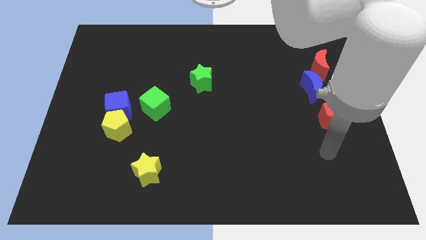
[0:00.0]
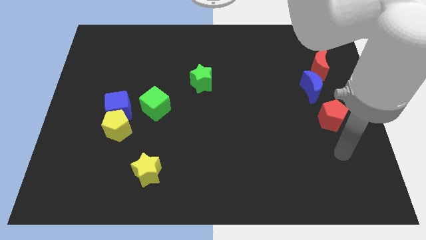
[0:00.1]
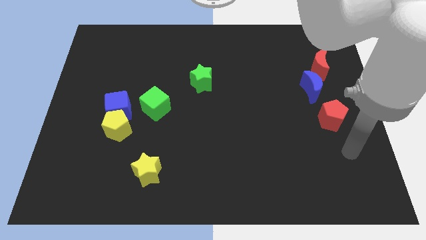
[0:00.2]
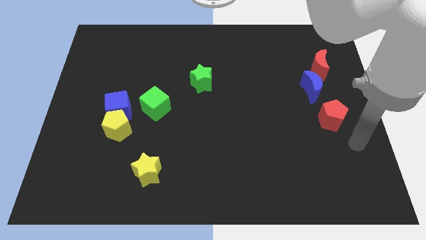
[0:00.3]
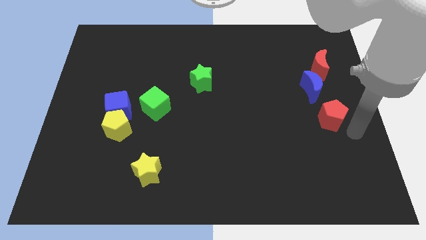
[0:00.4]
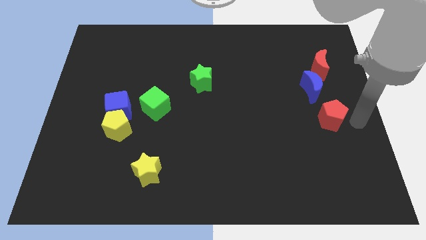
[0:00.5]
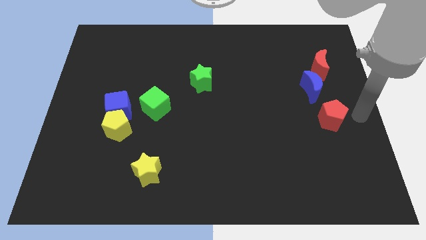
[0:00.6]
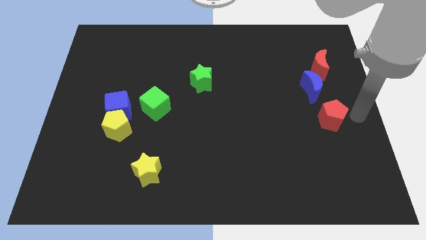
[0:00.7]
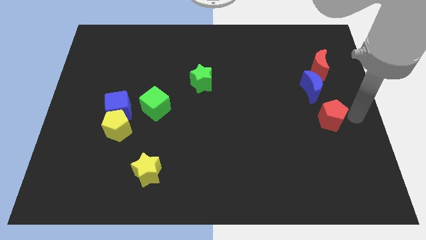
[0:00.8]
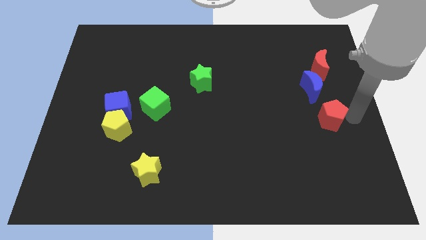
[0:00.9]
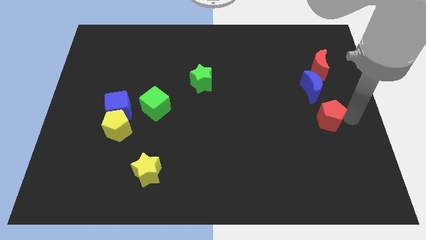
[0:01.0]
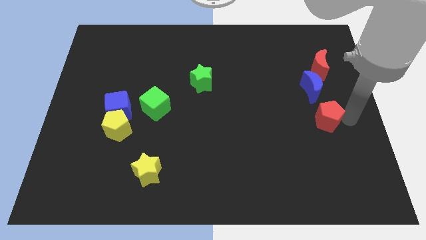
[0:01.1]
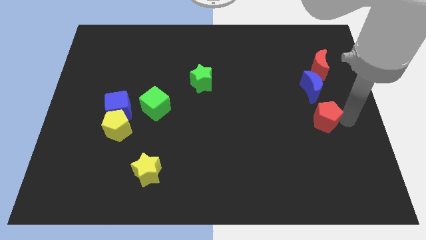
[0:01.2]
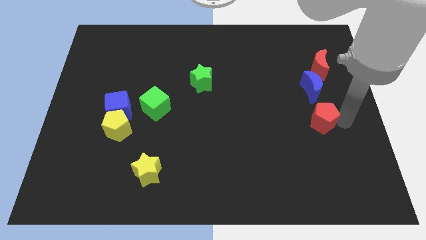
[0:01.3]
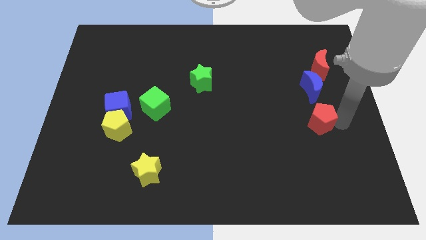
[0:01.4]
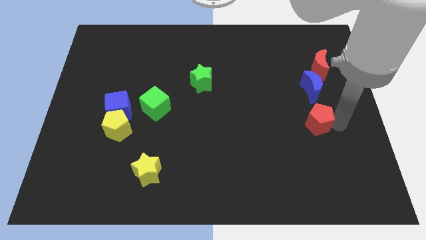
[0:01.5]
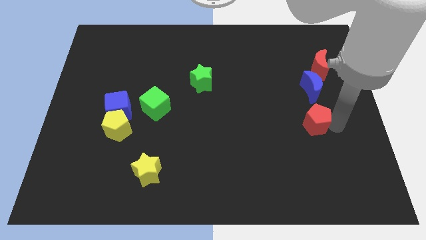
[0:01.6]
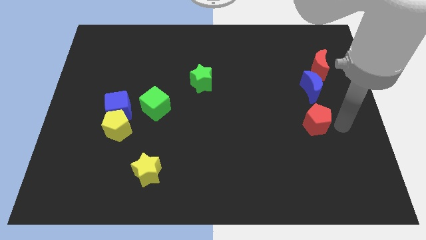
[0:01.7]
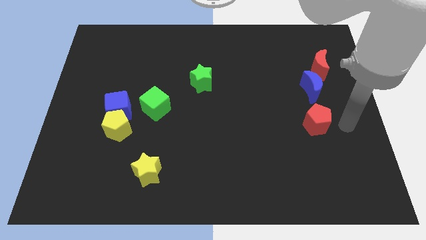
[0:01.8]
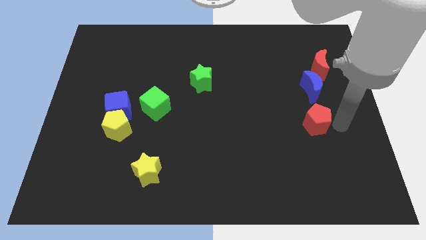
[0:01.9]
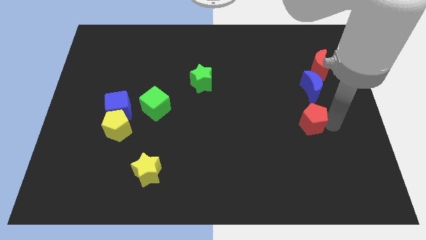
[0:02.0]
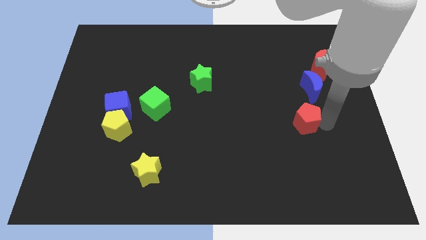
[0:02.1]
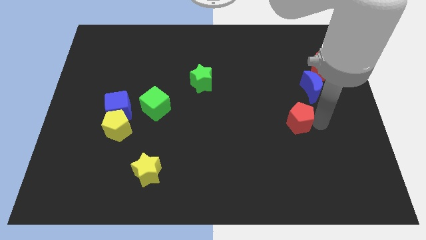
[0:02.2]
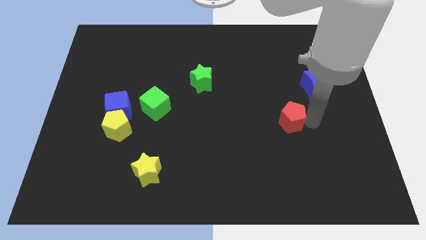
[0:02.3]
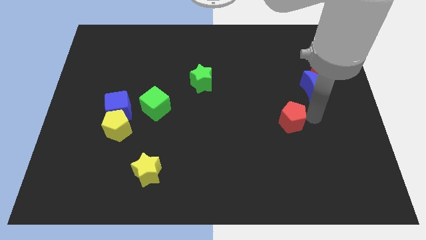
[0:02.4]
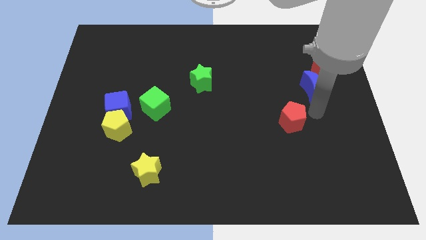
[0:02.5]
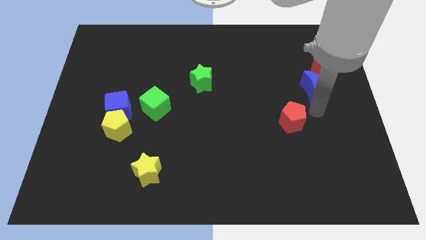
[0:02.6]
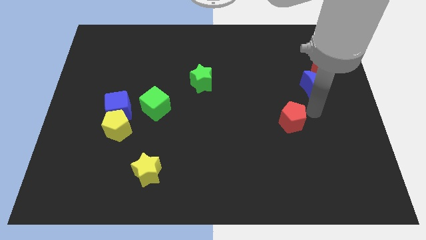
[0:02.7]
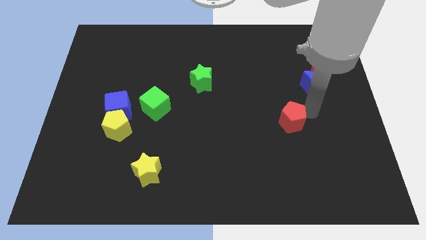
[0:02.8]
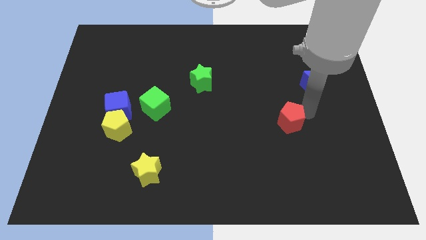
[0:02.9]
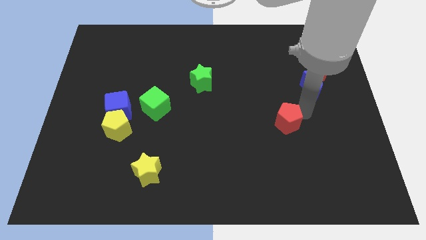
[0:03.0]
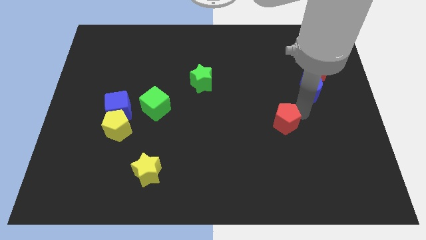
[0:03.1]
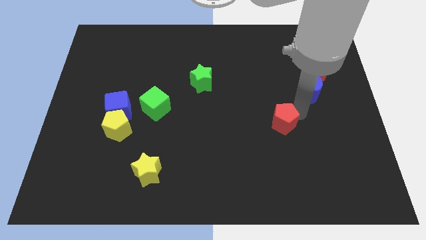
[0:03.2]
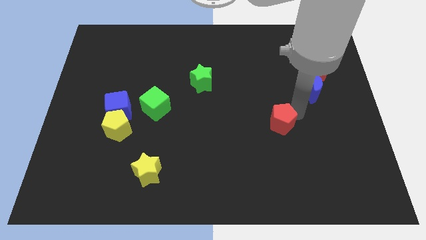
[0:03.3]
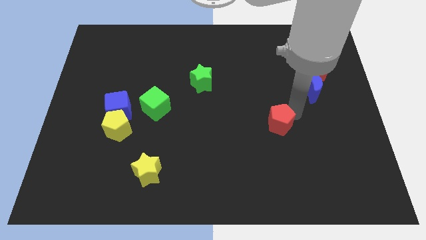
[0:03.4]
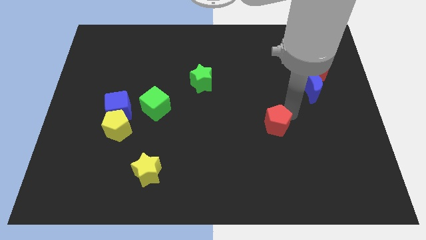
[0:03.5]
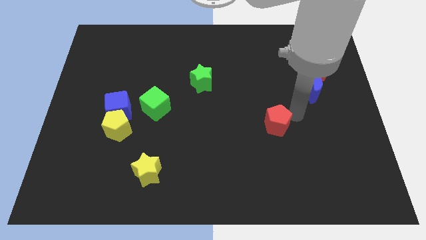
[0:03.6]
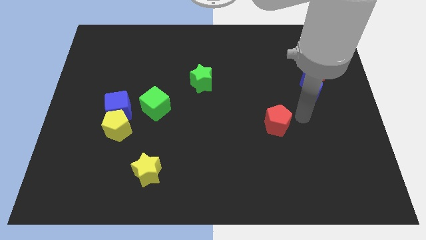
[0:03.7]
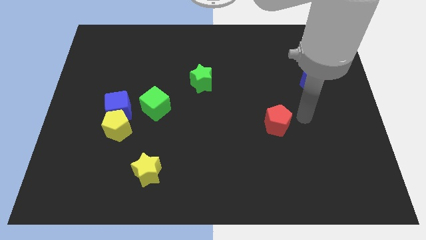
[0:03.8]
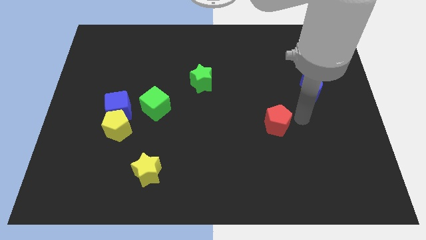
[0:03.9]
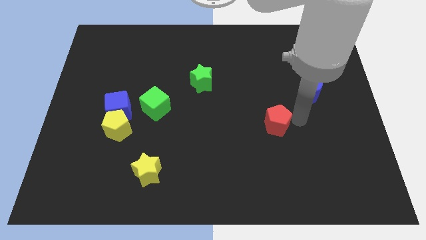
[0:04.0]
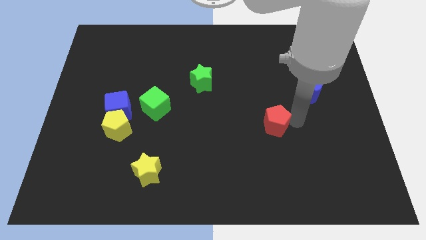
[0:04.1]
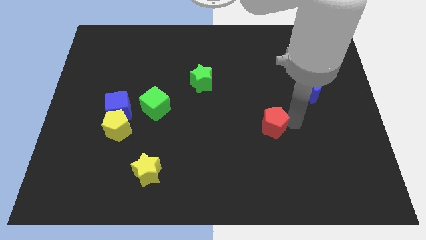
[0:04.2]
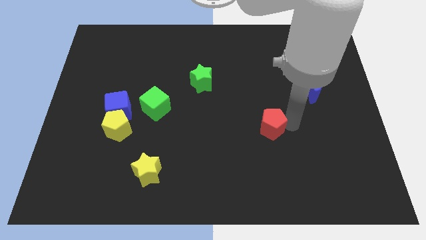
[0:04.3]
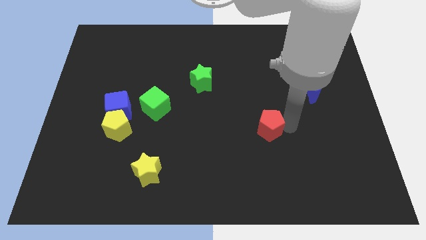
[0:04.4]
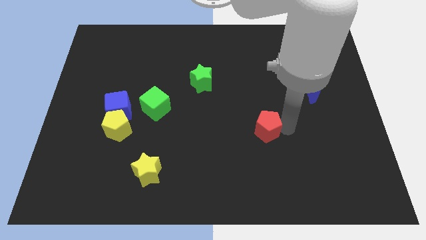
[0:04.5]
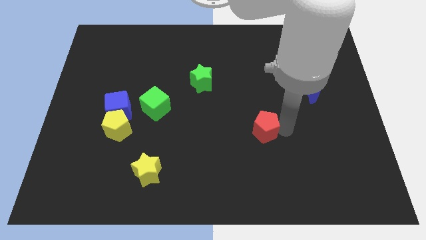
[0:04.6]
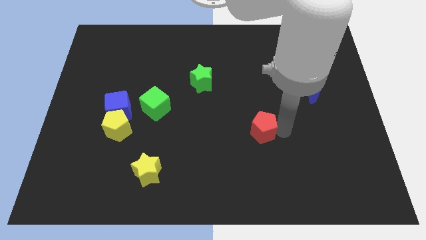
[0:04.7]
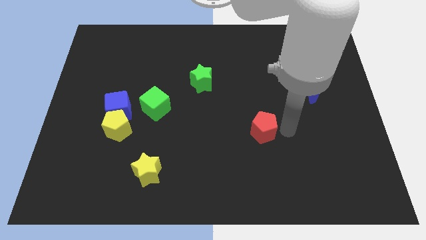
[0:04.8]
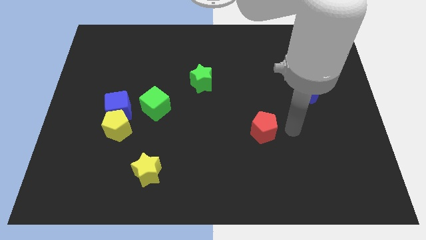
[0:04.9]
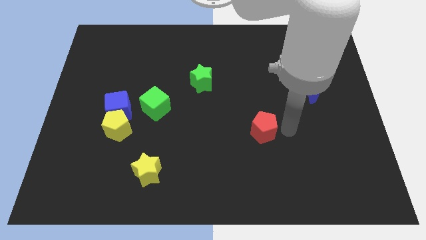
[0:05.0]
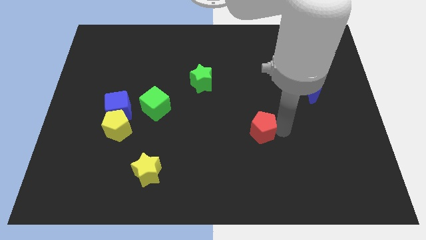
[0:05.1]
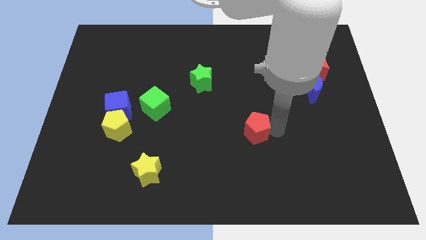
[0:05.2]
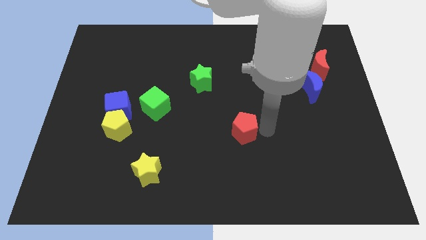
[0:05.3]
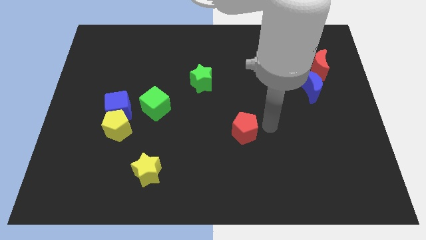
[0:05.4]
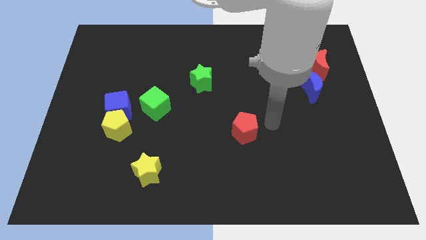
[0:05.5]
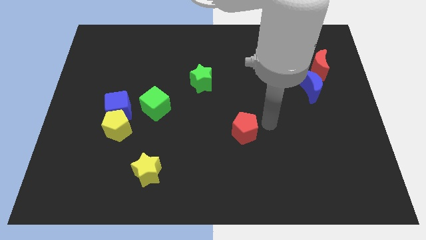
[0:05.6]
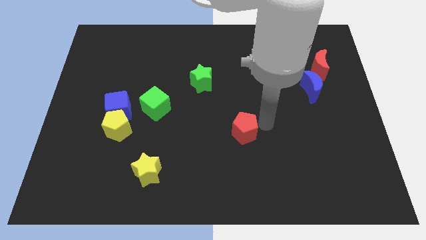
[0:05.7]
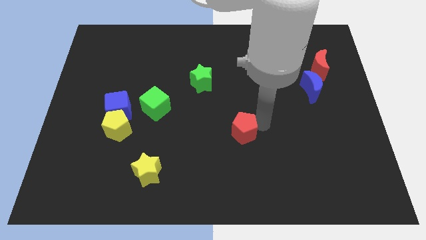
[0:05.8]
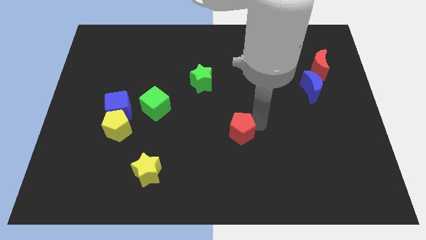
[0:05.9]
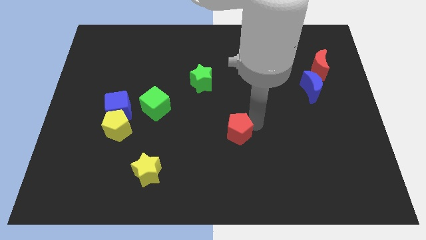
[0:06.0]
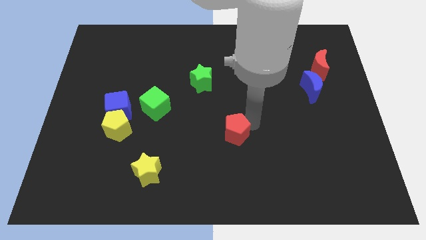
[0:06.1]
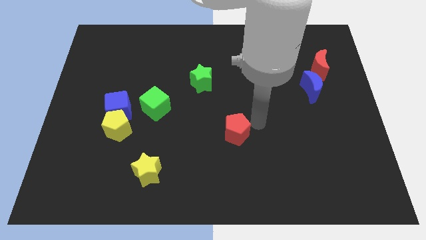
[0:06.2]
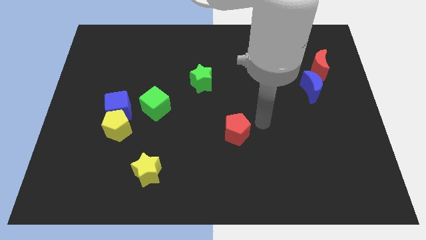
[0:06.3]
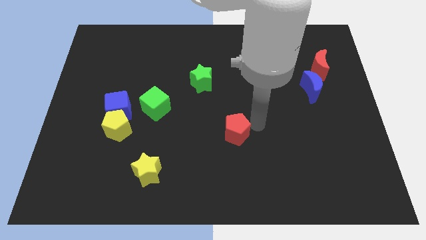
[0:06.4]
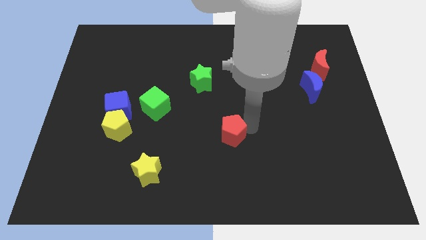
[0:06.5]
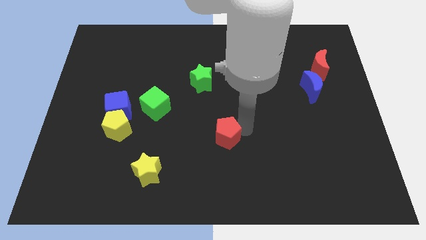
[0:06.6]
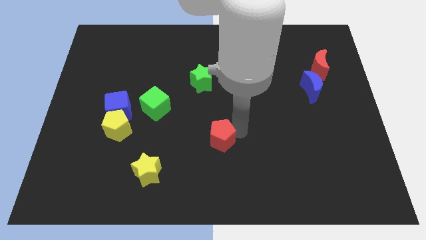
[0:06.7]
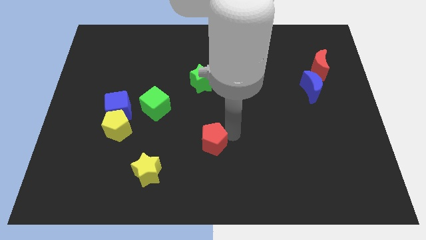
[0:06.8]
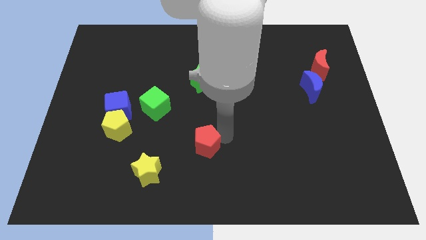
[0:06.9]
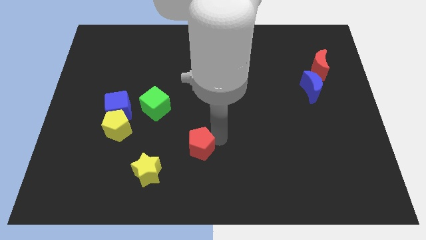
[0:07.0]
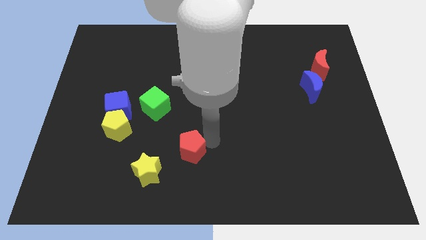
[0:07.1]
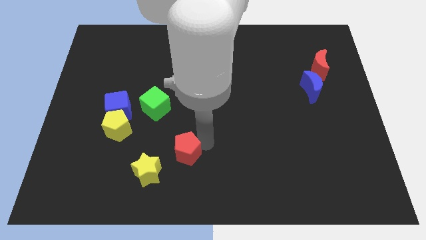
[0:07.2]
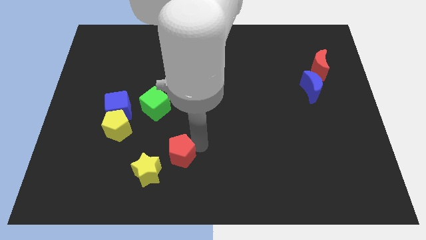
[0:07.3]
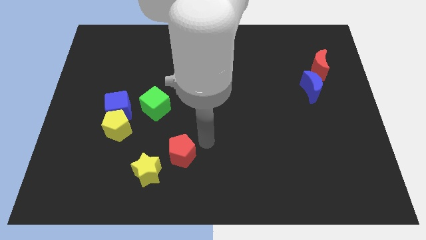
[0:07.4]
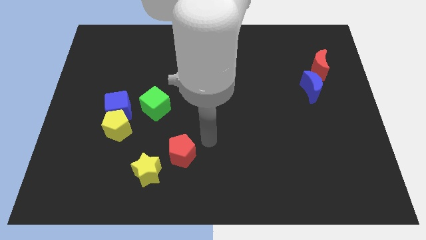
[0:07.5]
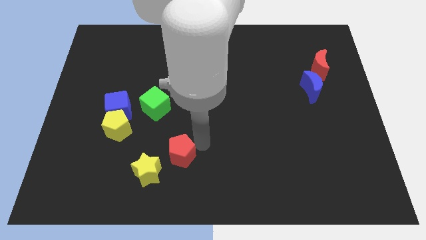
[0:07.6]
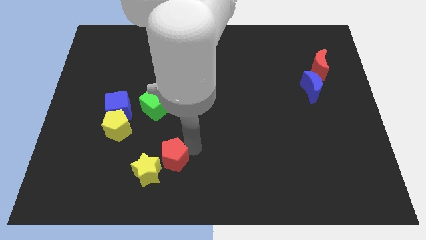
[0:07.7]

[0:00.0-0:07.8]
slide the red pentagon to the yellow star

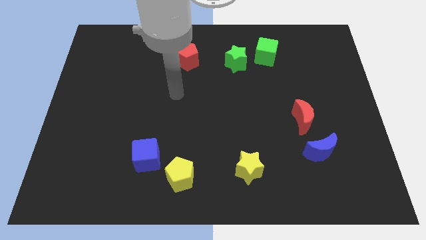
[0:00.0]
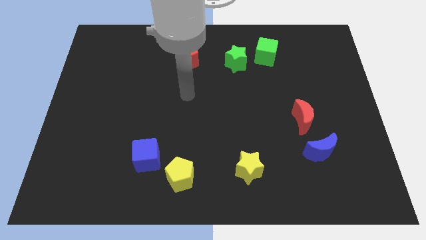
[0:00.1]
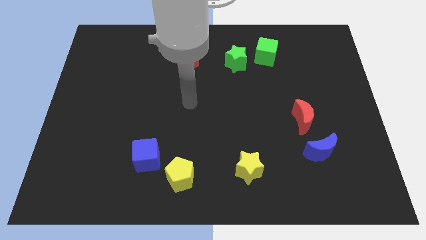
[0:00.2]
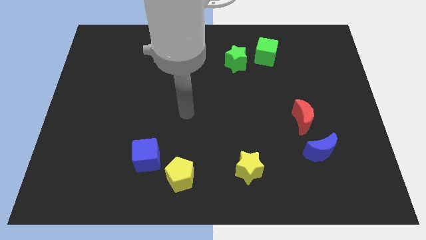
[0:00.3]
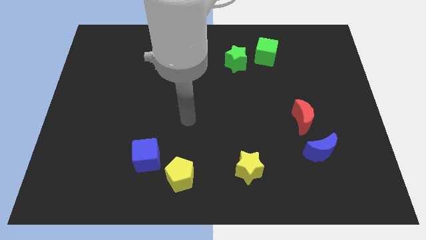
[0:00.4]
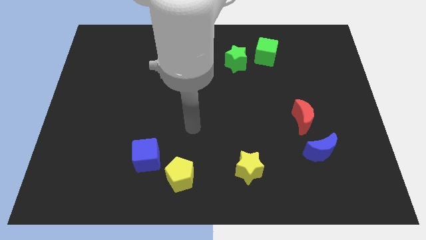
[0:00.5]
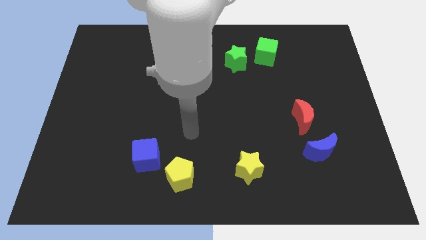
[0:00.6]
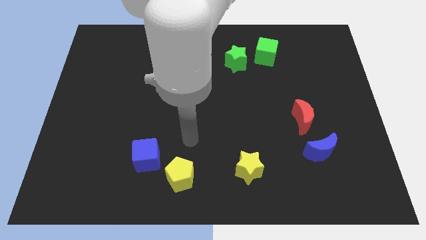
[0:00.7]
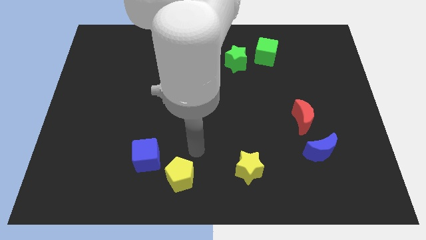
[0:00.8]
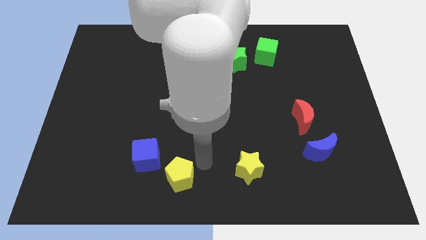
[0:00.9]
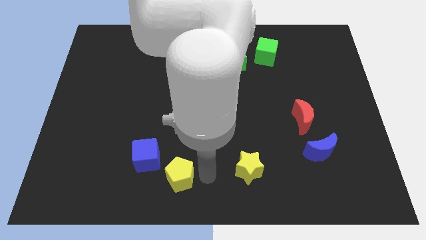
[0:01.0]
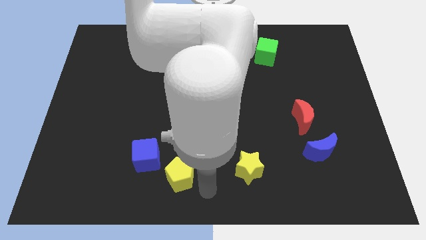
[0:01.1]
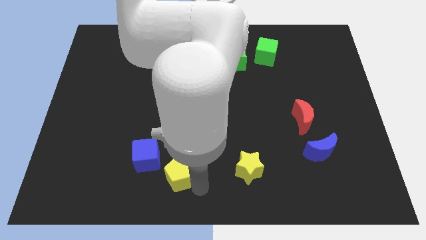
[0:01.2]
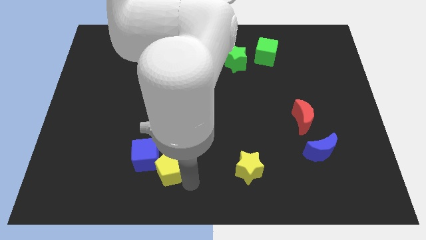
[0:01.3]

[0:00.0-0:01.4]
push the yellow pentagon next to the blue cube
